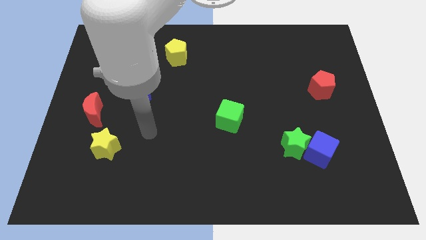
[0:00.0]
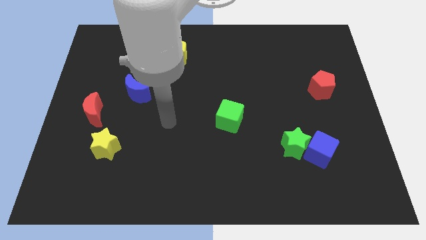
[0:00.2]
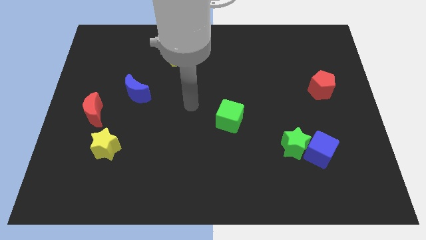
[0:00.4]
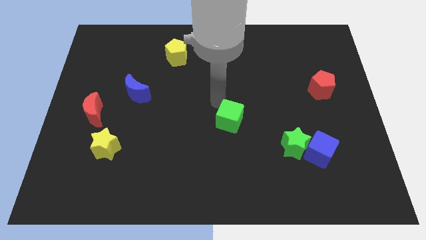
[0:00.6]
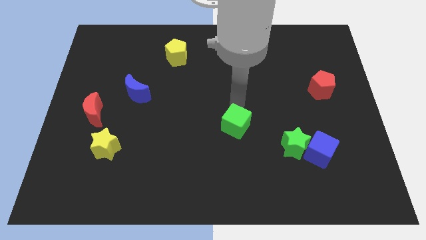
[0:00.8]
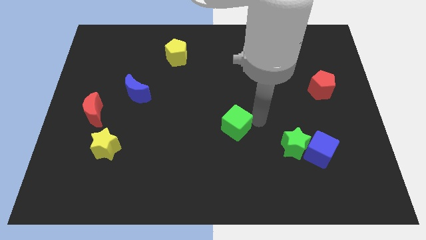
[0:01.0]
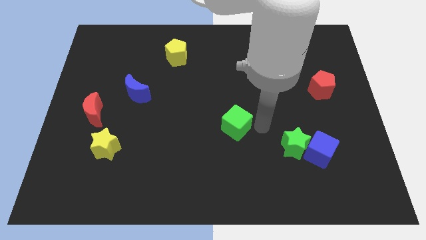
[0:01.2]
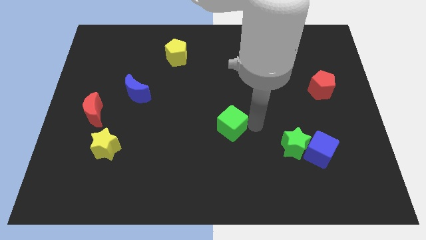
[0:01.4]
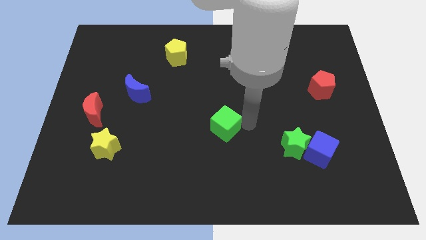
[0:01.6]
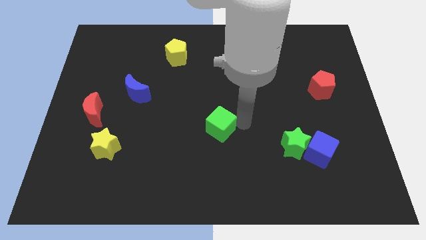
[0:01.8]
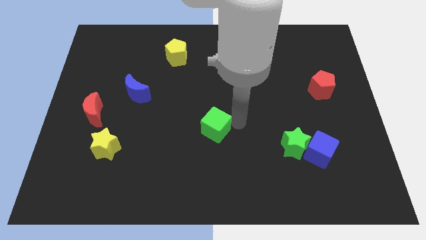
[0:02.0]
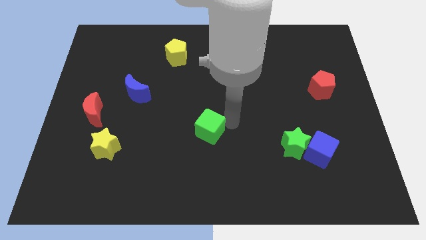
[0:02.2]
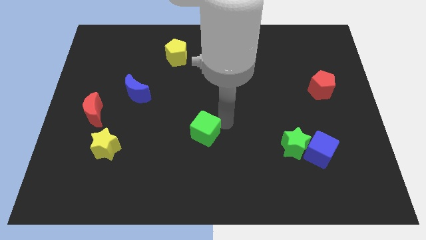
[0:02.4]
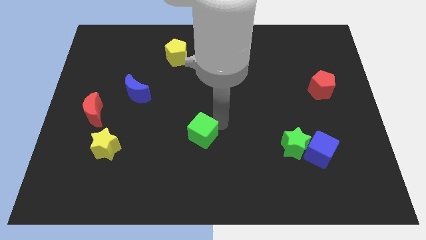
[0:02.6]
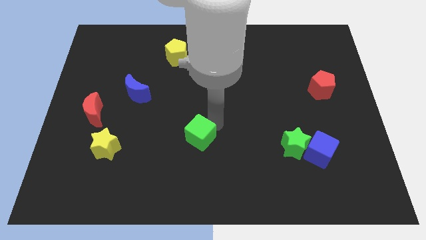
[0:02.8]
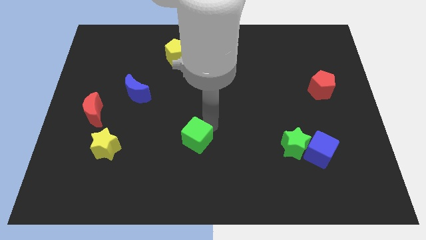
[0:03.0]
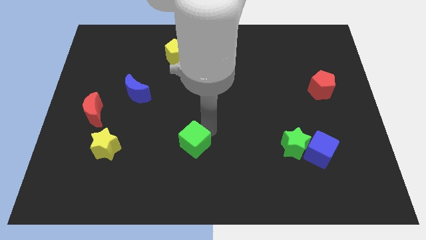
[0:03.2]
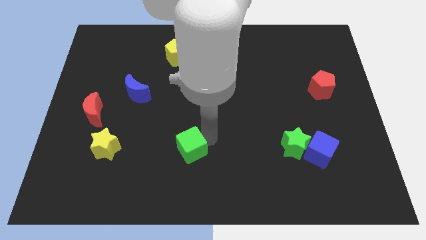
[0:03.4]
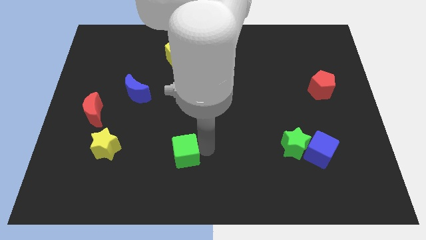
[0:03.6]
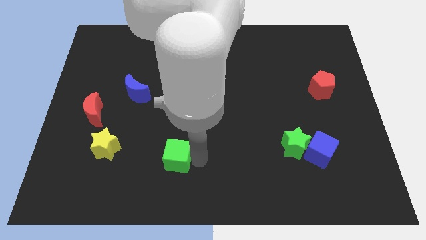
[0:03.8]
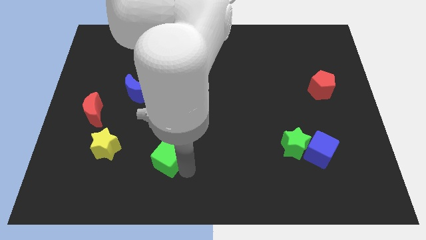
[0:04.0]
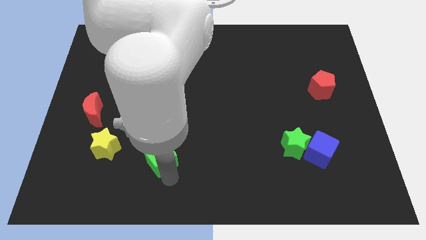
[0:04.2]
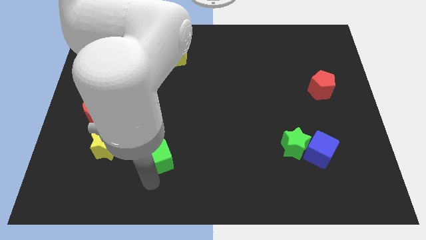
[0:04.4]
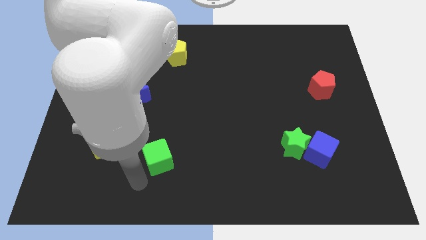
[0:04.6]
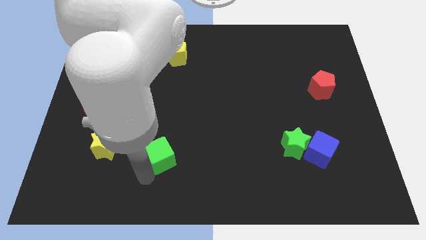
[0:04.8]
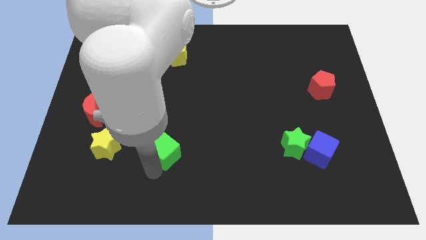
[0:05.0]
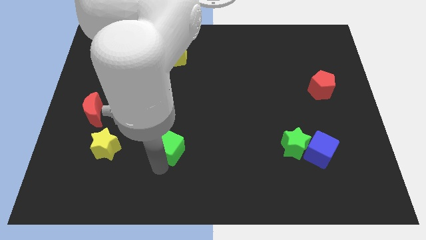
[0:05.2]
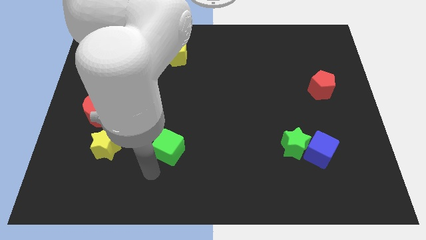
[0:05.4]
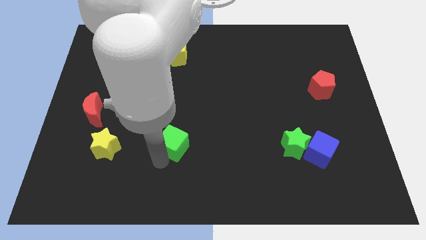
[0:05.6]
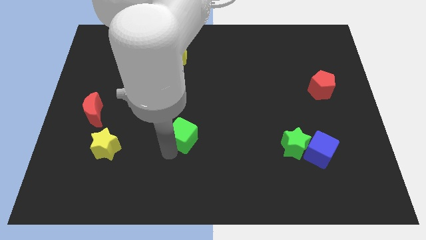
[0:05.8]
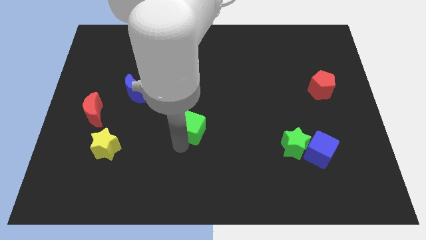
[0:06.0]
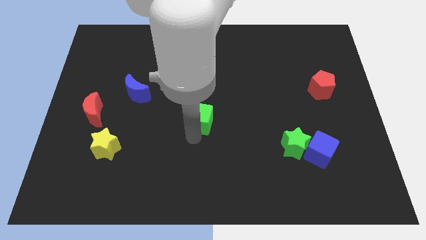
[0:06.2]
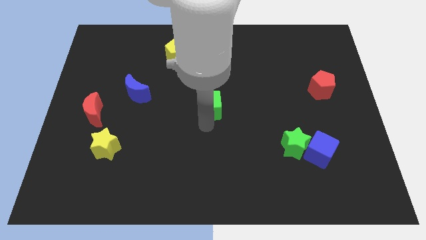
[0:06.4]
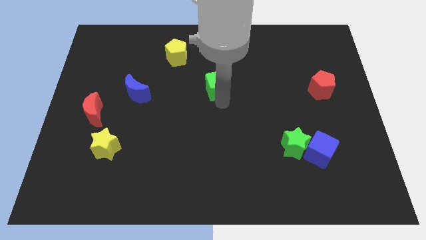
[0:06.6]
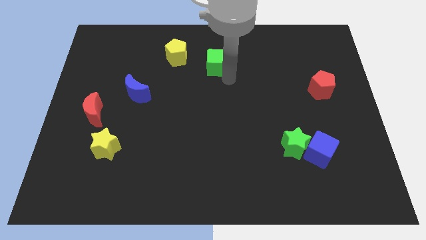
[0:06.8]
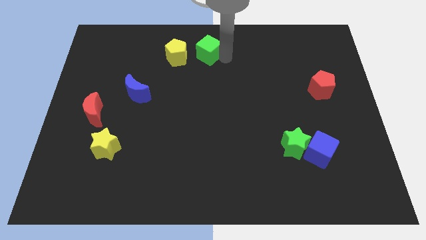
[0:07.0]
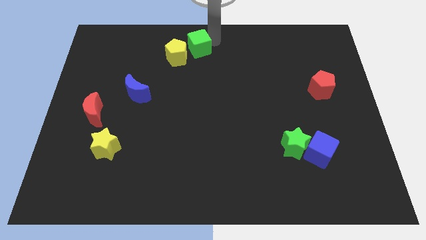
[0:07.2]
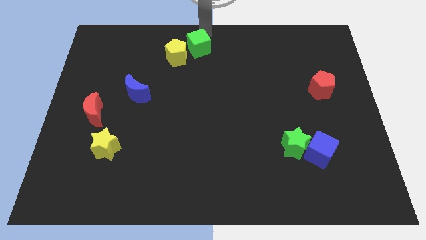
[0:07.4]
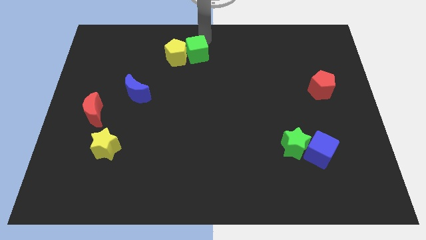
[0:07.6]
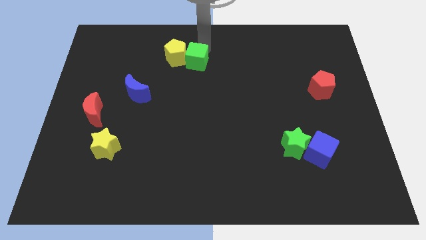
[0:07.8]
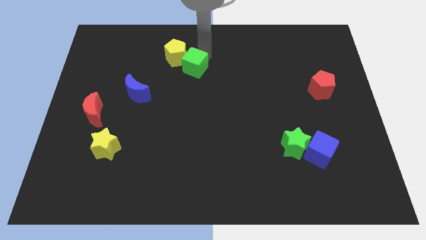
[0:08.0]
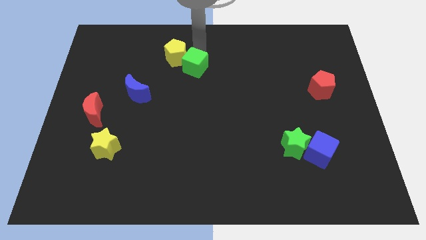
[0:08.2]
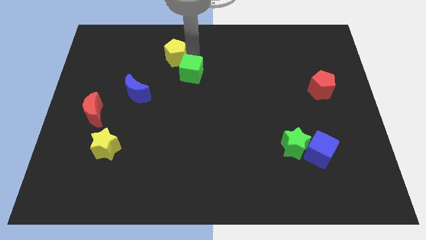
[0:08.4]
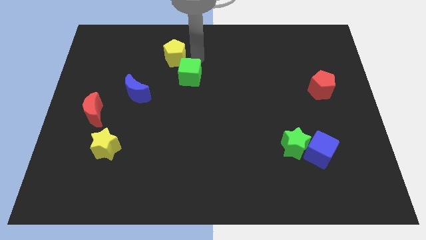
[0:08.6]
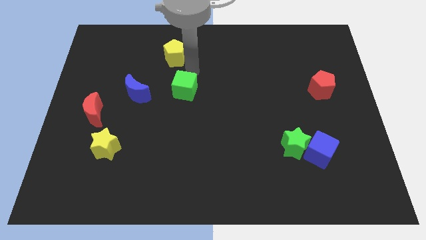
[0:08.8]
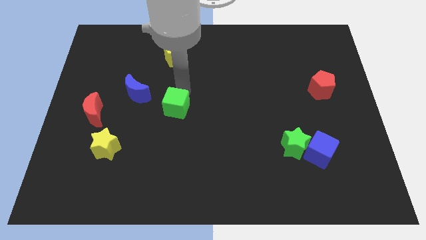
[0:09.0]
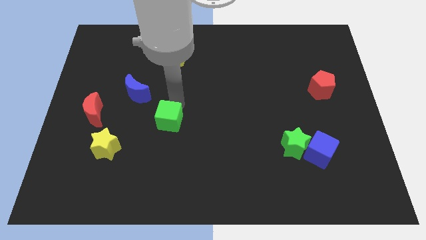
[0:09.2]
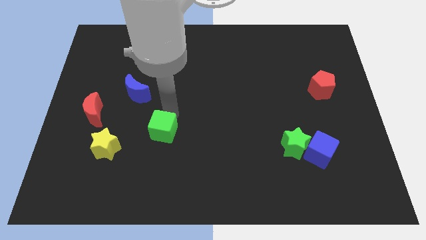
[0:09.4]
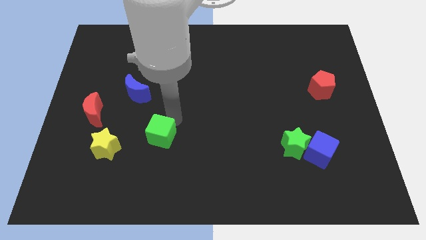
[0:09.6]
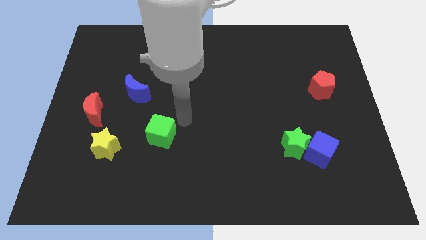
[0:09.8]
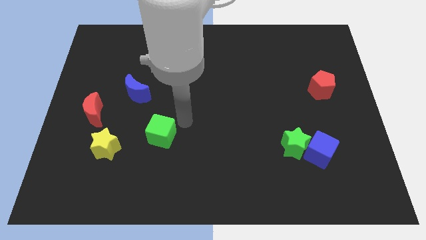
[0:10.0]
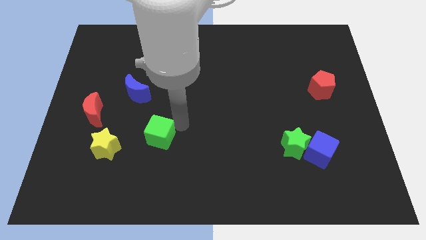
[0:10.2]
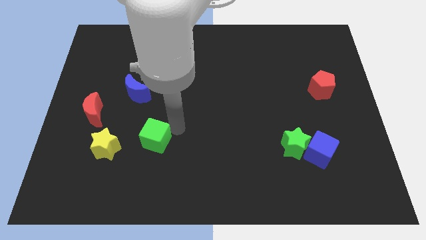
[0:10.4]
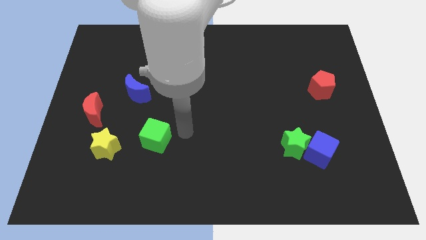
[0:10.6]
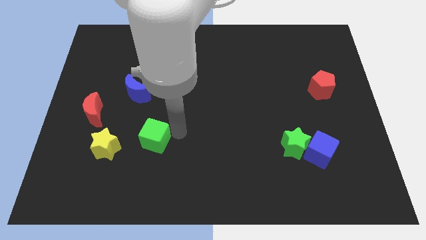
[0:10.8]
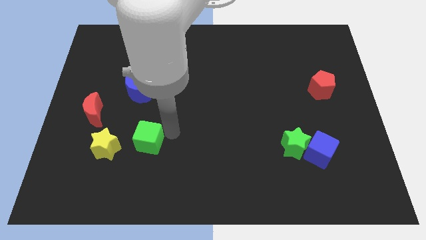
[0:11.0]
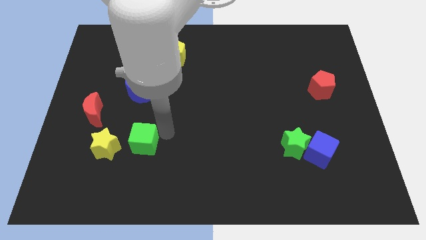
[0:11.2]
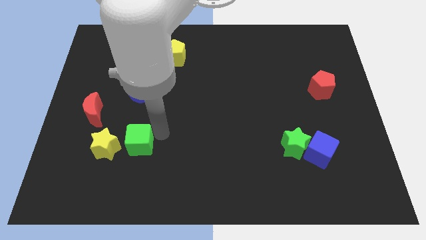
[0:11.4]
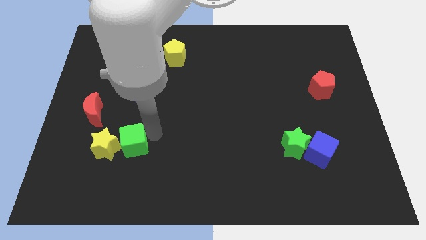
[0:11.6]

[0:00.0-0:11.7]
push the green cube towards the yellow star

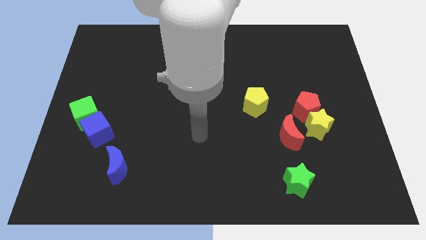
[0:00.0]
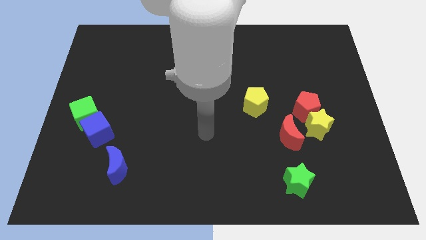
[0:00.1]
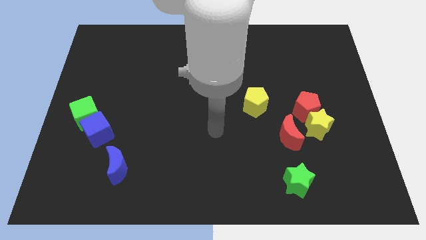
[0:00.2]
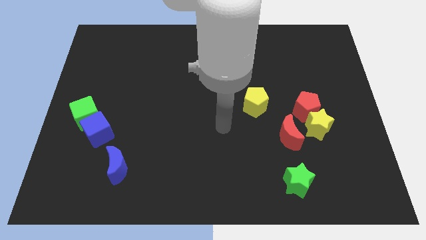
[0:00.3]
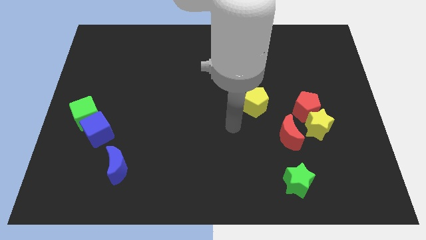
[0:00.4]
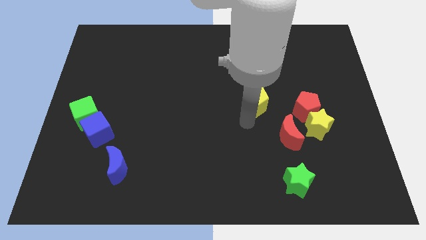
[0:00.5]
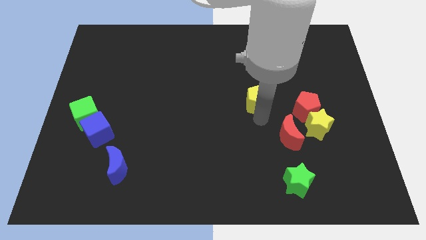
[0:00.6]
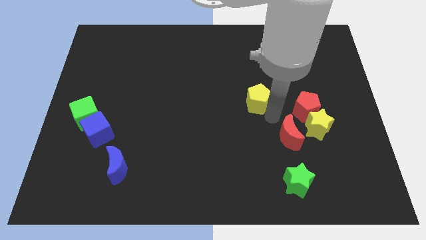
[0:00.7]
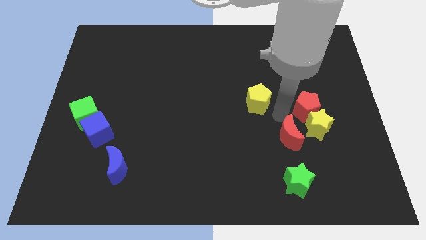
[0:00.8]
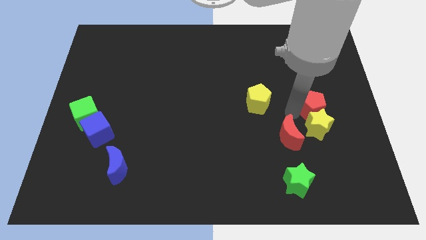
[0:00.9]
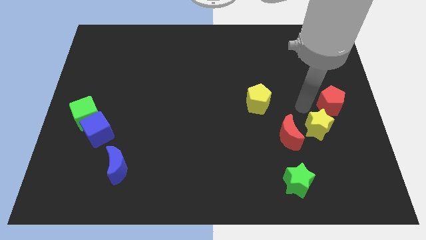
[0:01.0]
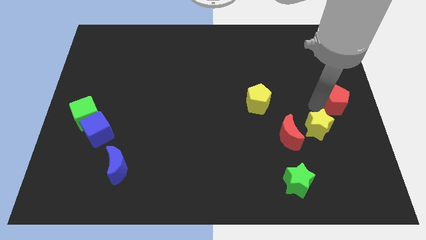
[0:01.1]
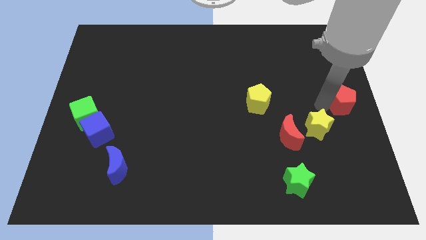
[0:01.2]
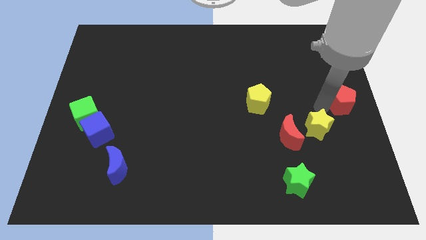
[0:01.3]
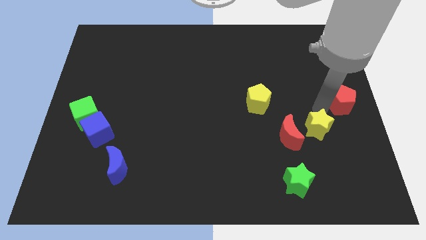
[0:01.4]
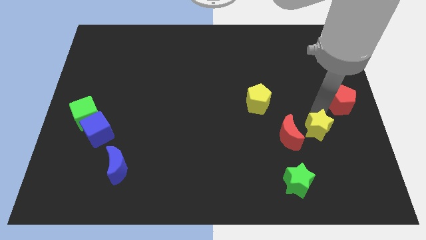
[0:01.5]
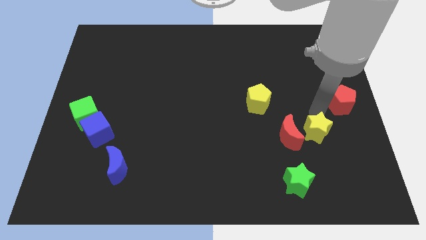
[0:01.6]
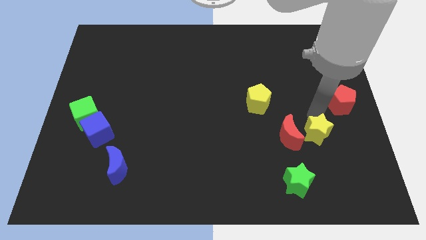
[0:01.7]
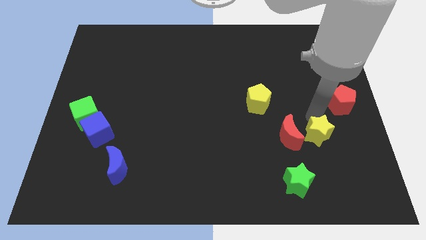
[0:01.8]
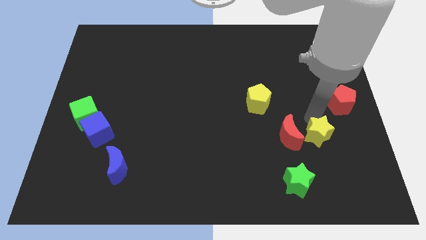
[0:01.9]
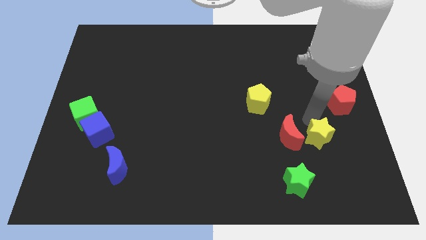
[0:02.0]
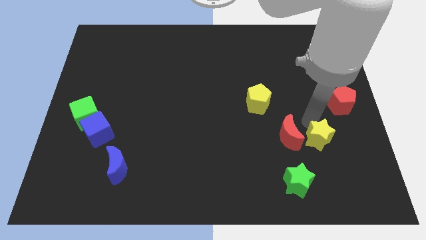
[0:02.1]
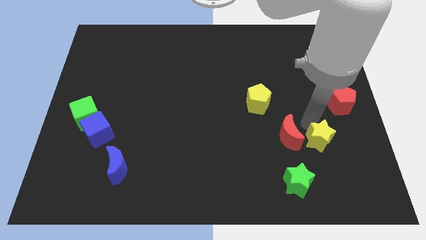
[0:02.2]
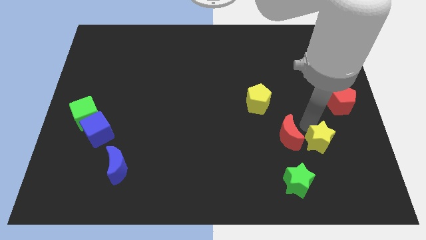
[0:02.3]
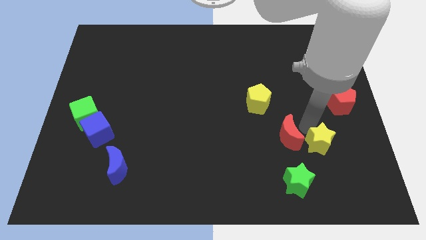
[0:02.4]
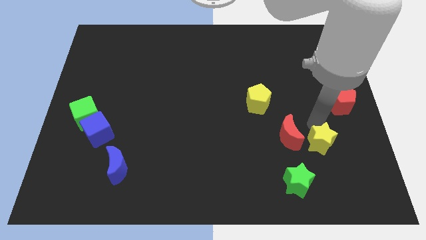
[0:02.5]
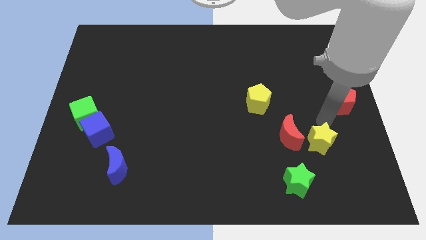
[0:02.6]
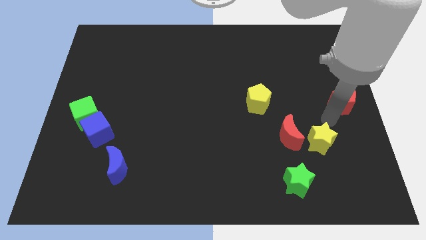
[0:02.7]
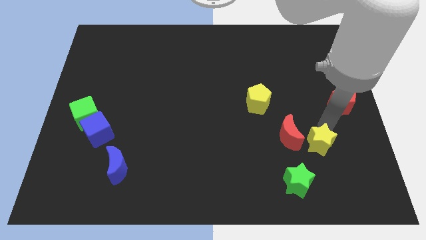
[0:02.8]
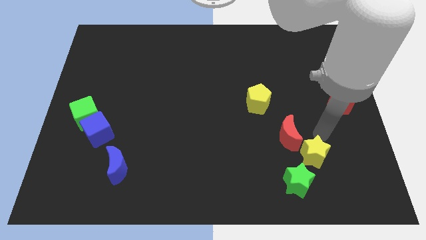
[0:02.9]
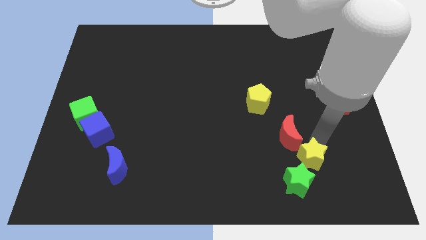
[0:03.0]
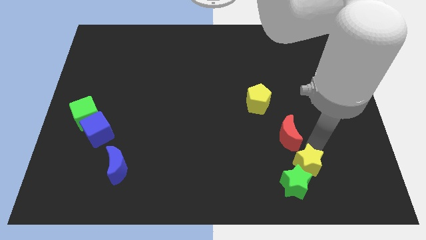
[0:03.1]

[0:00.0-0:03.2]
push the yellow star close to the green star
